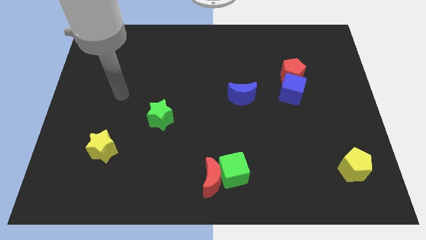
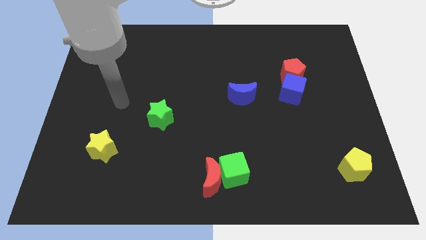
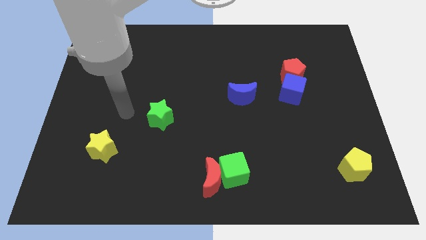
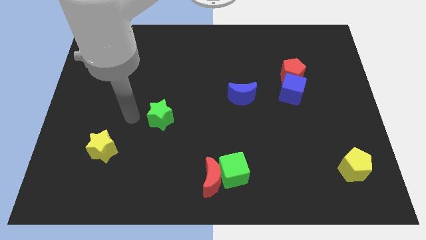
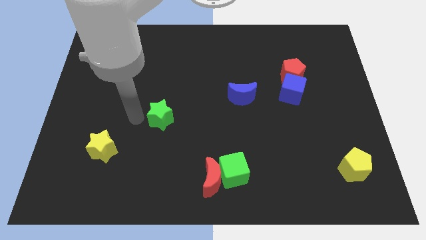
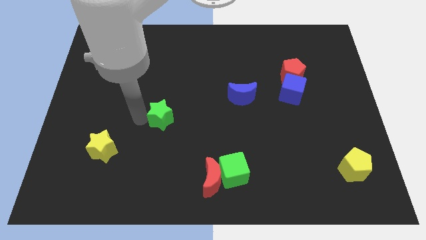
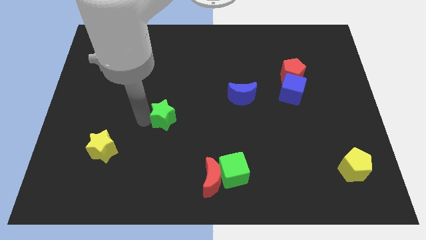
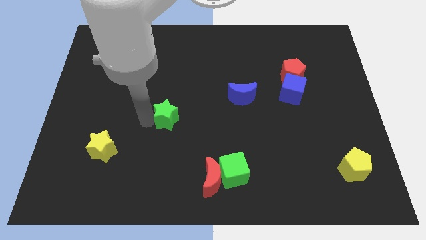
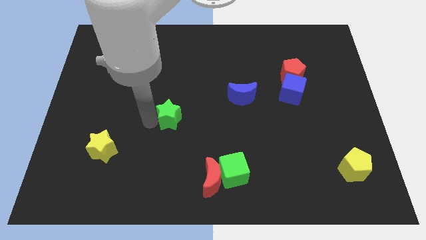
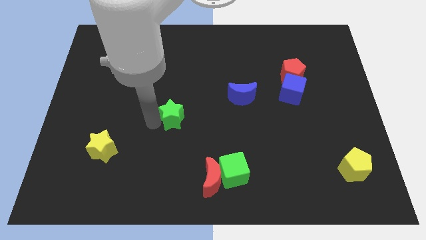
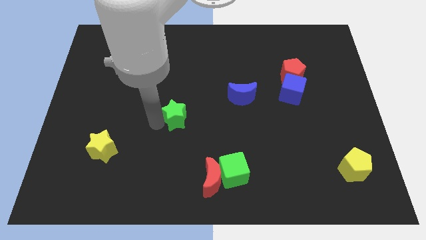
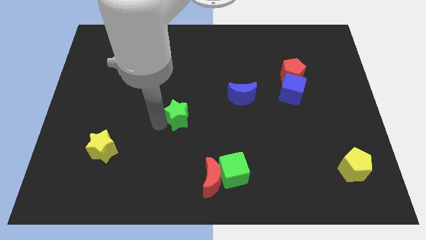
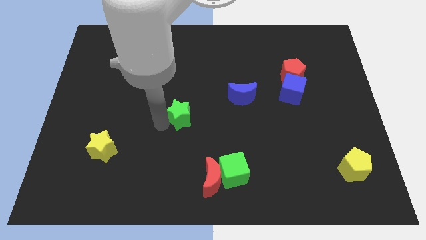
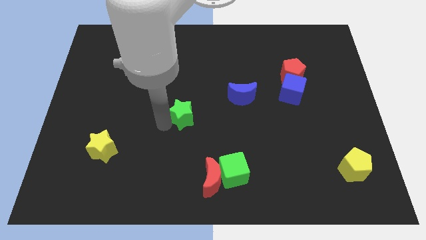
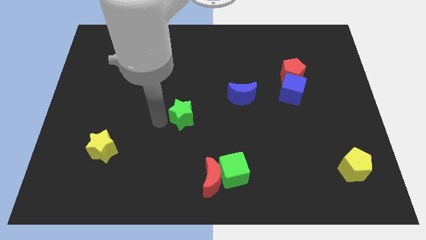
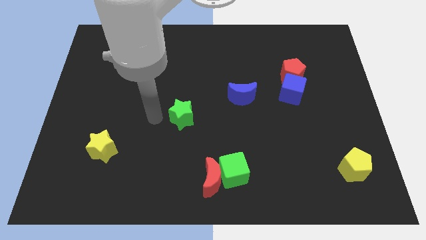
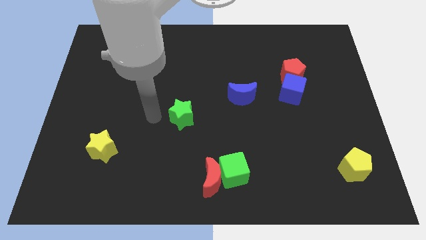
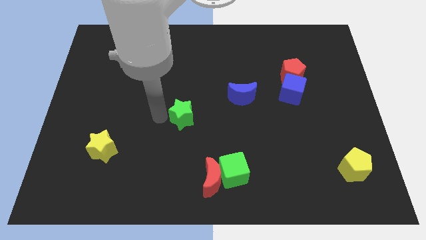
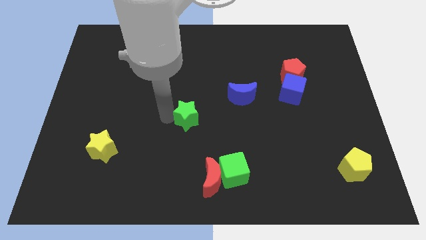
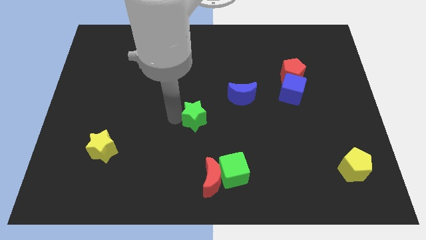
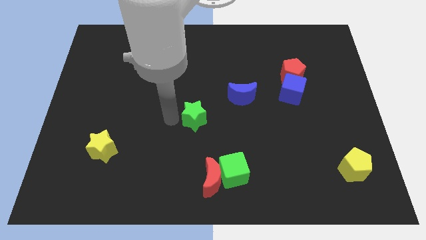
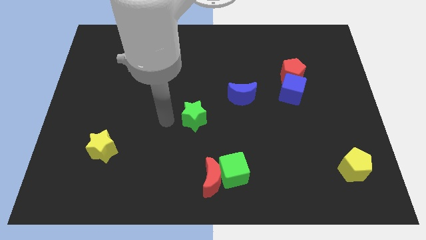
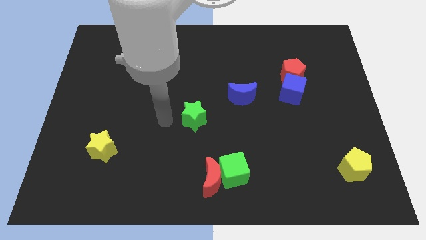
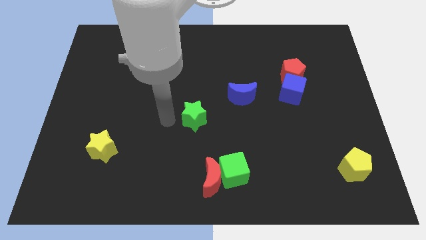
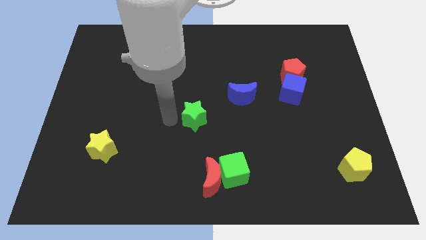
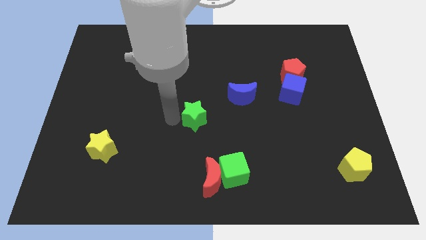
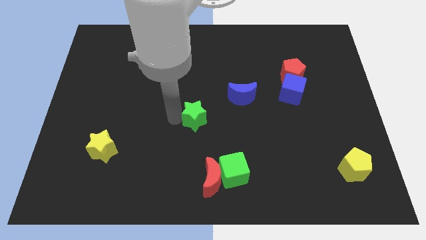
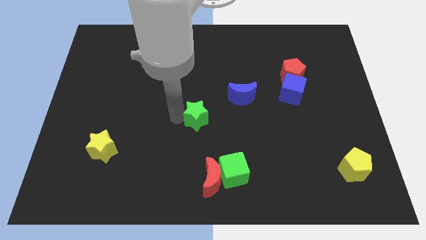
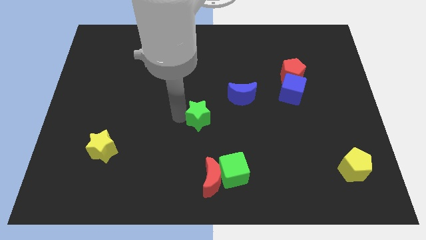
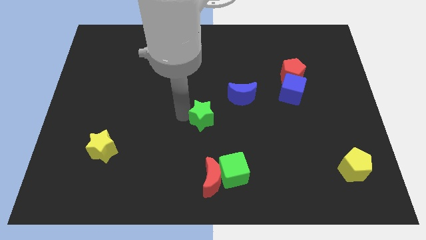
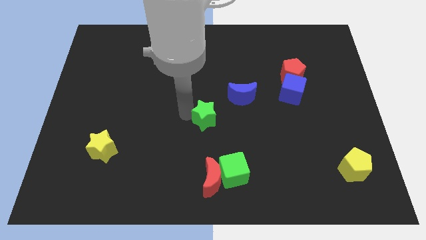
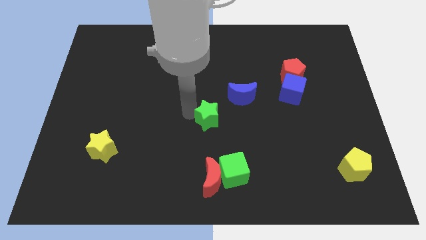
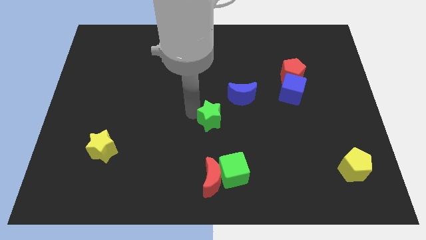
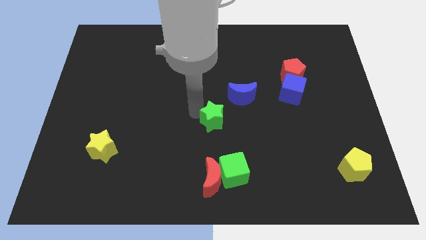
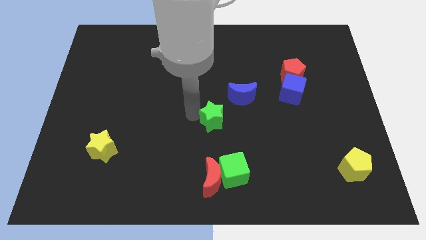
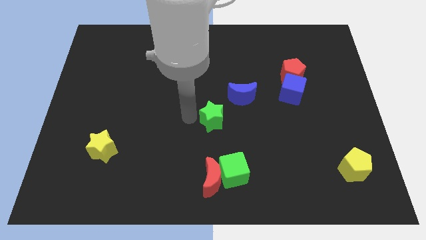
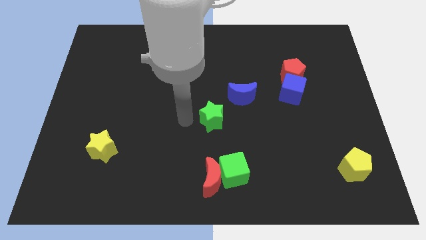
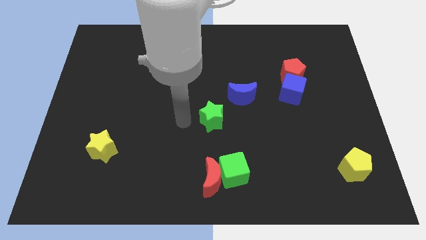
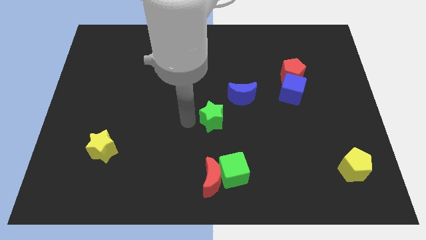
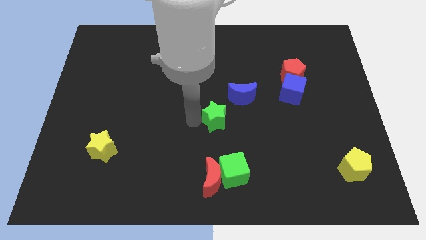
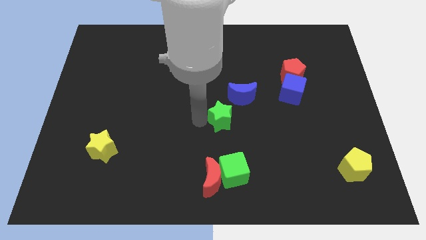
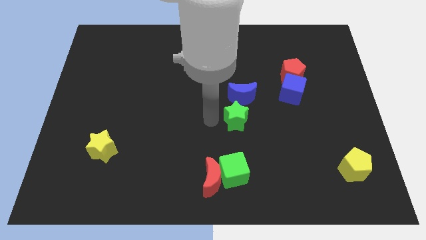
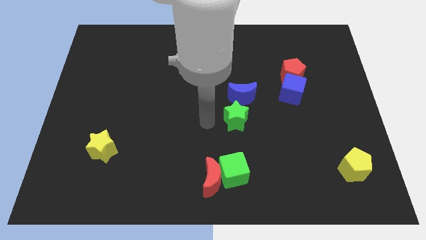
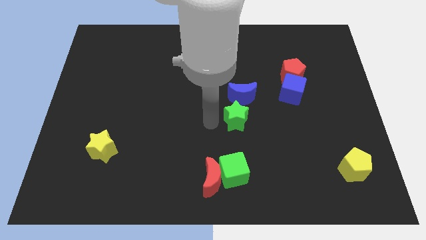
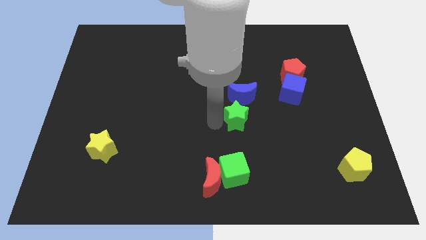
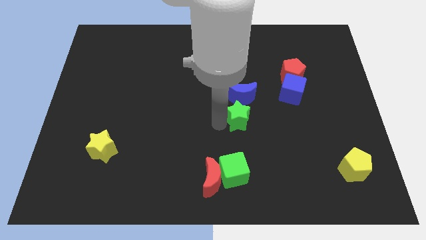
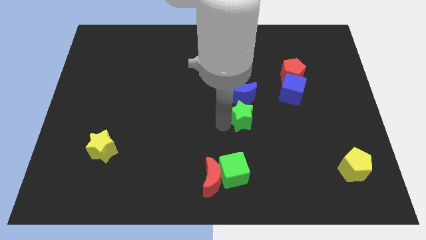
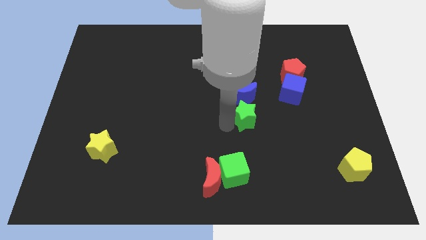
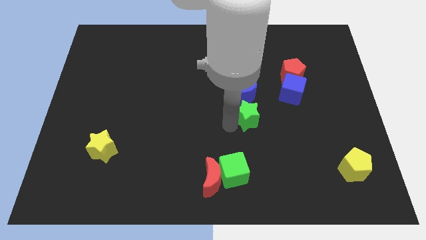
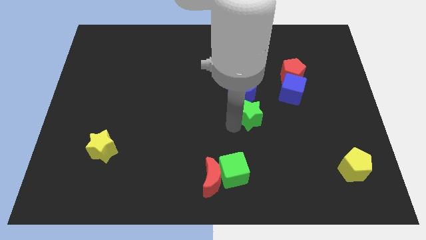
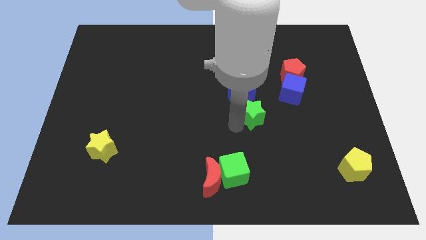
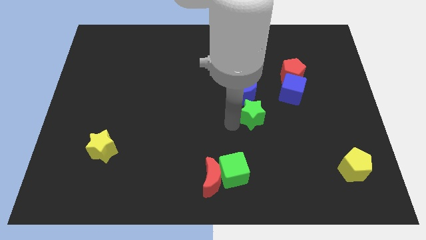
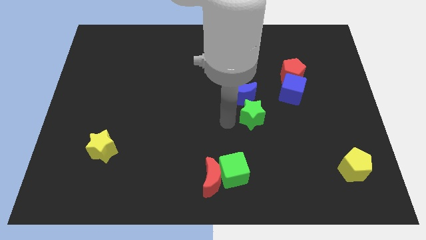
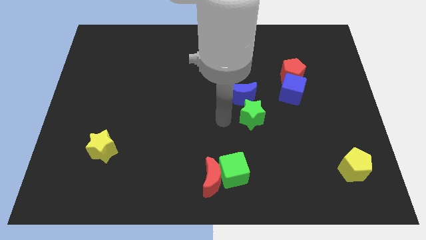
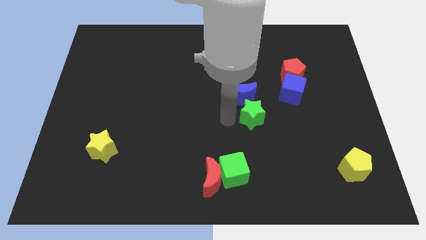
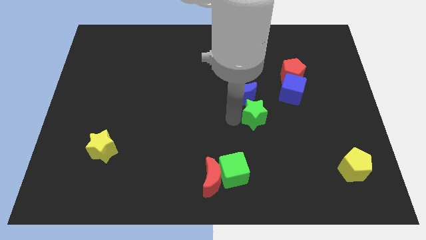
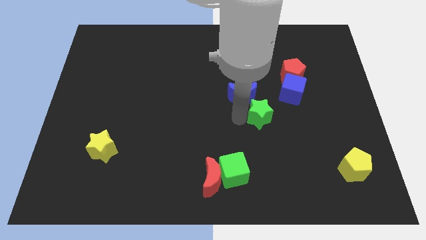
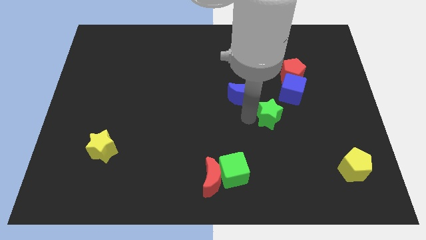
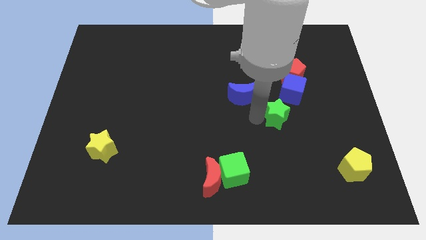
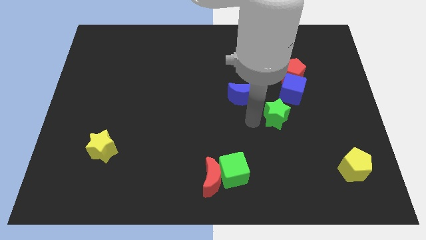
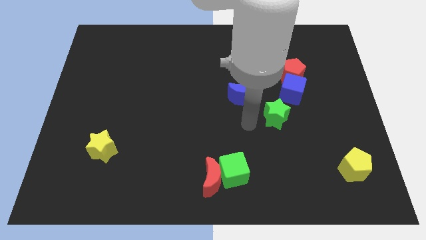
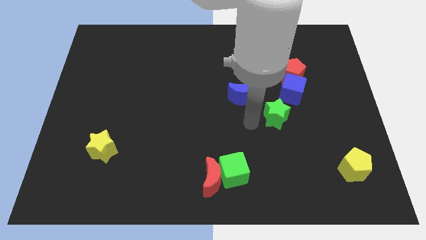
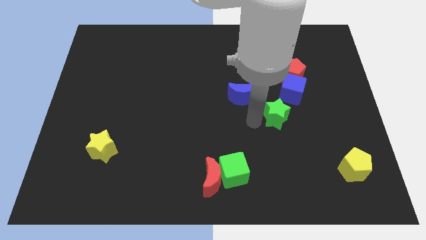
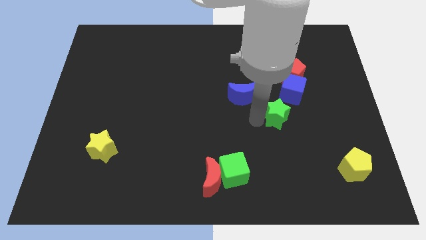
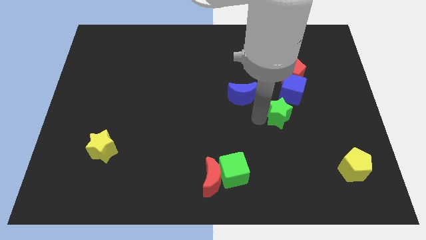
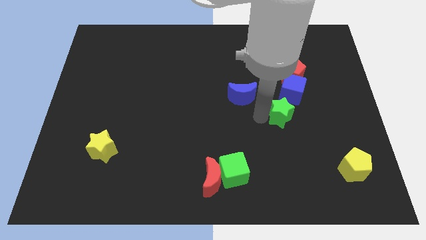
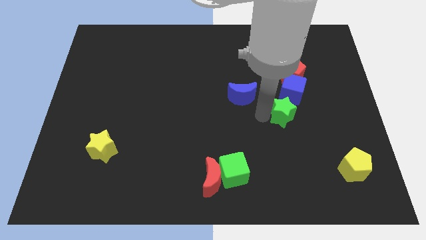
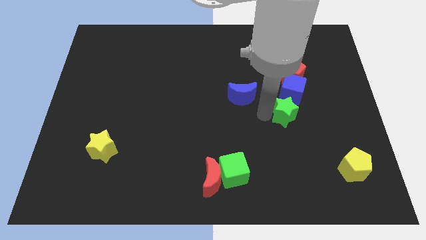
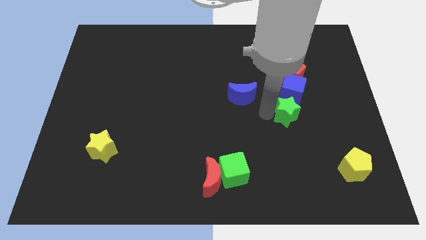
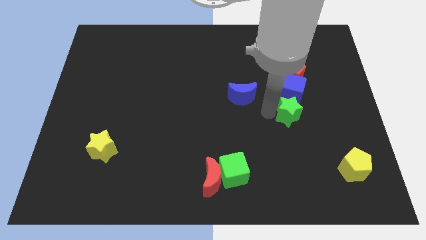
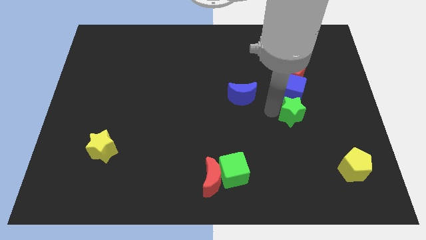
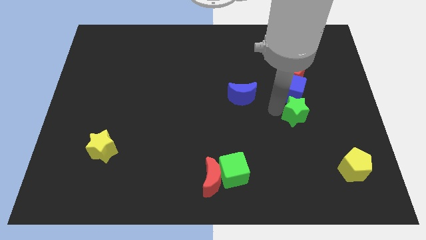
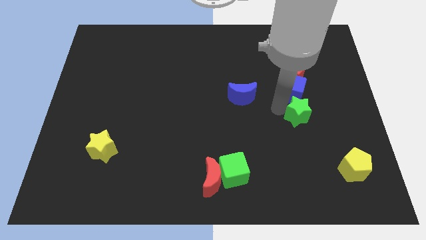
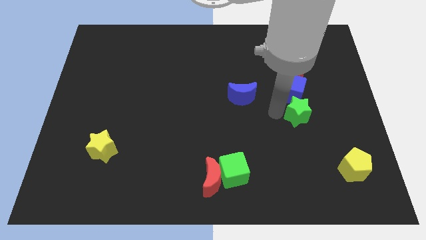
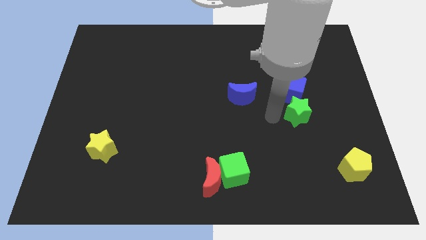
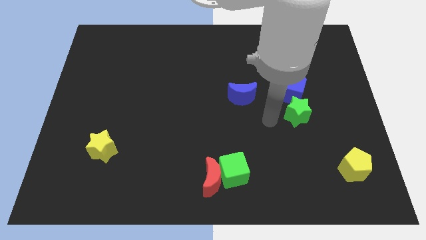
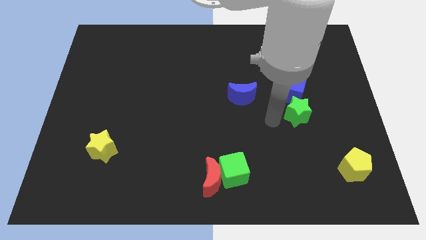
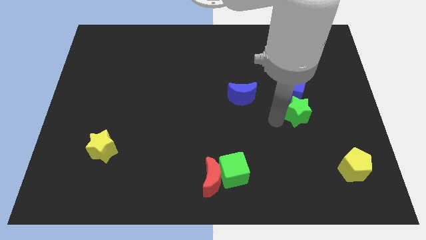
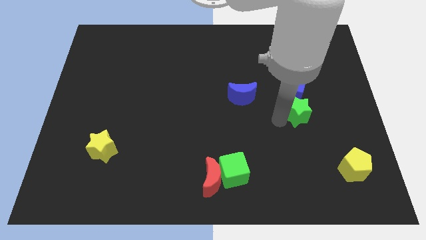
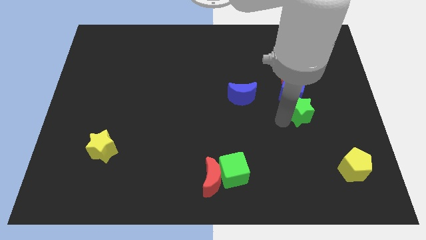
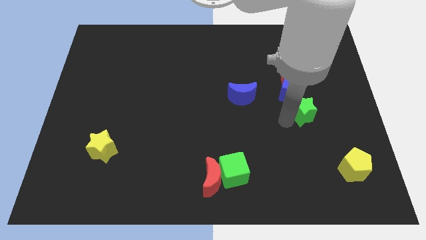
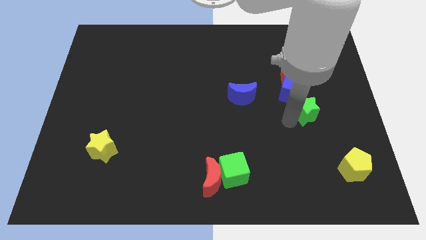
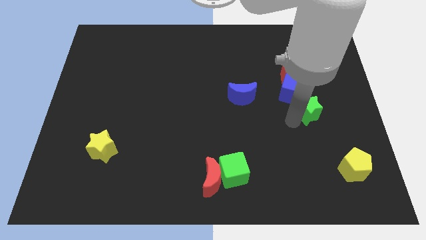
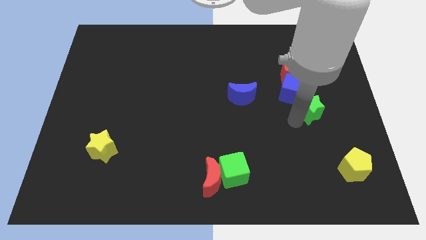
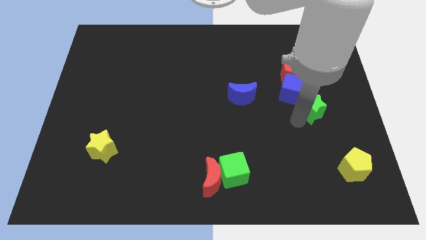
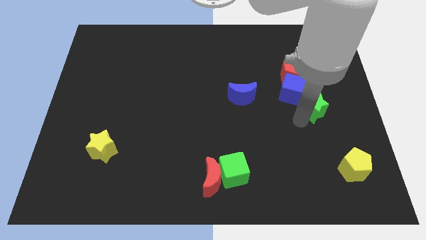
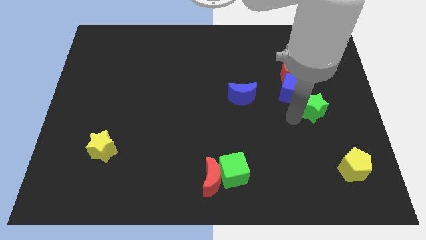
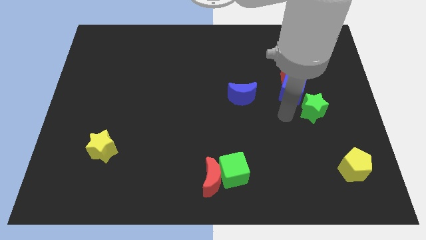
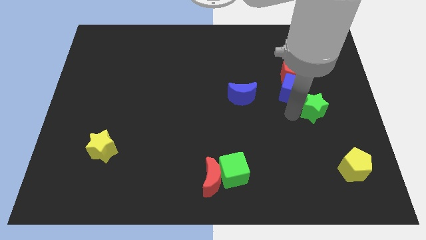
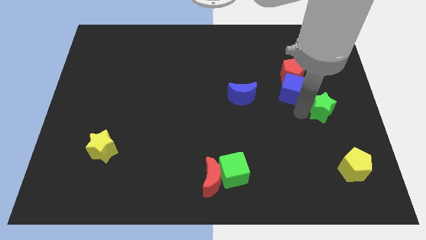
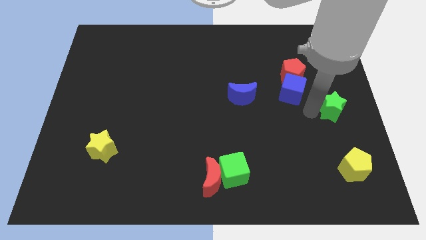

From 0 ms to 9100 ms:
move the green star to the center right
